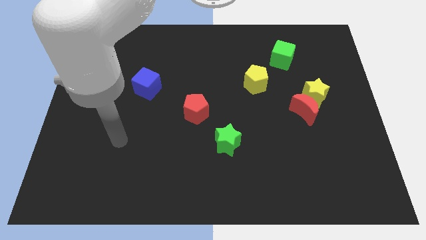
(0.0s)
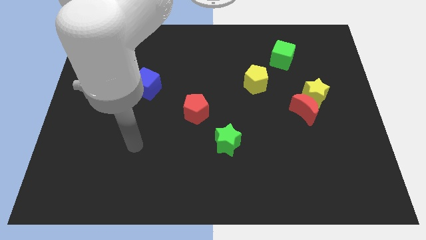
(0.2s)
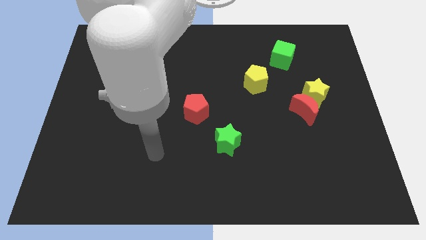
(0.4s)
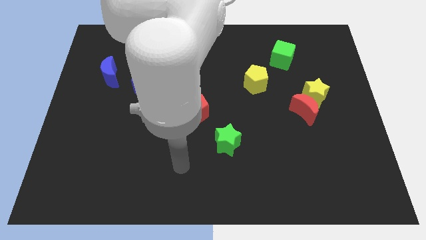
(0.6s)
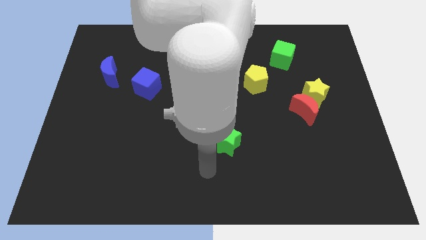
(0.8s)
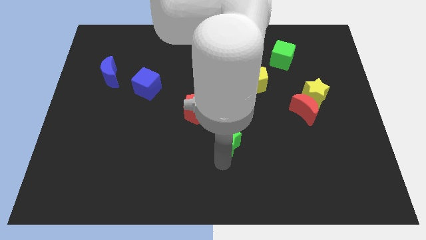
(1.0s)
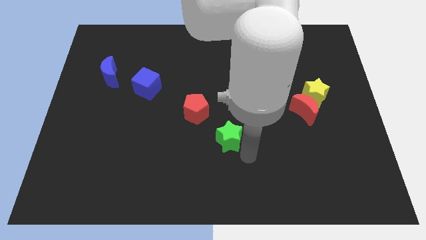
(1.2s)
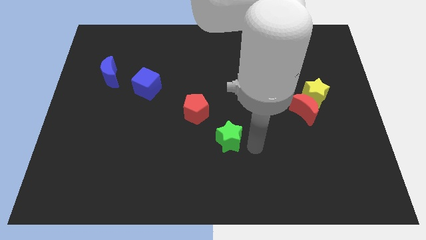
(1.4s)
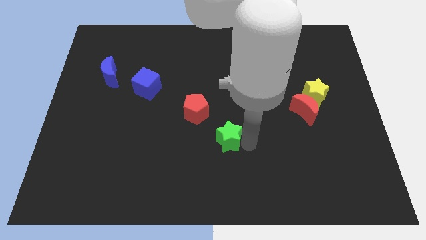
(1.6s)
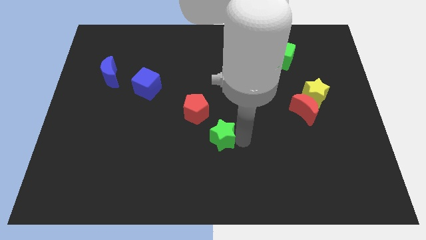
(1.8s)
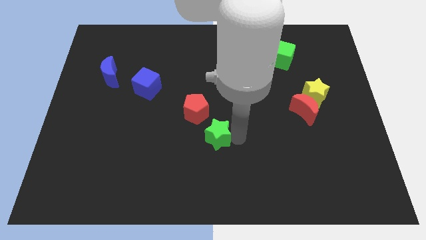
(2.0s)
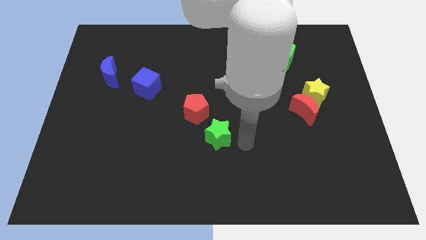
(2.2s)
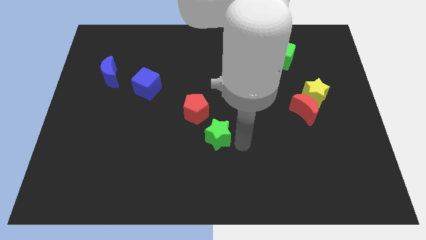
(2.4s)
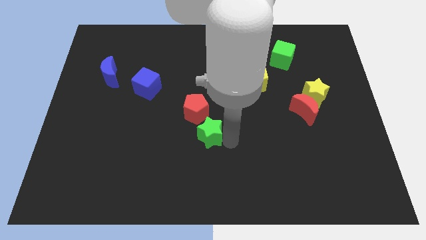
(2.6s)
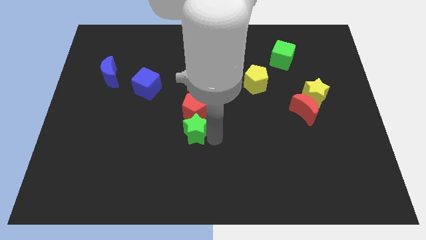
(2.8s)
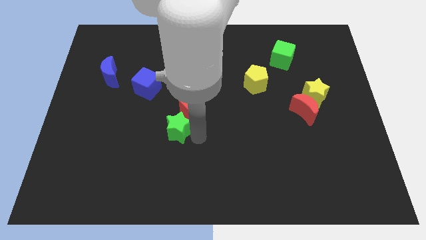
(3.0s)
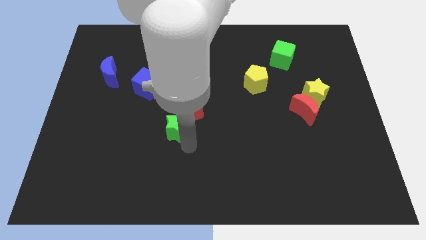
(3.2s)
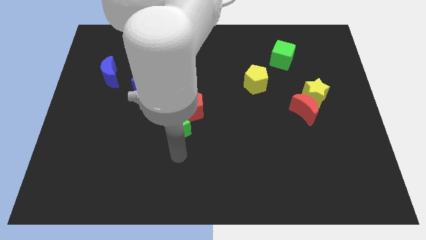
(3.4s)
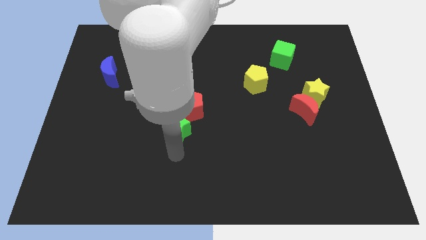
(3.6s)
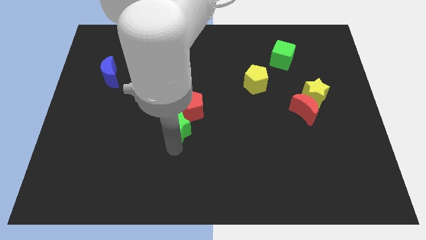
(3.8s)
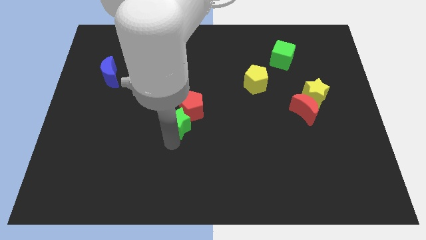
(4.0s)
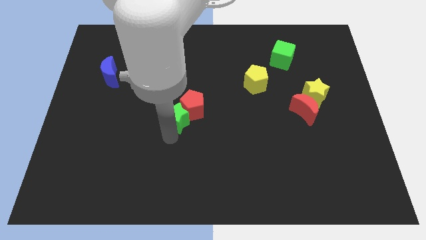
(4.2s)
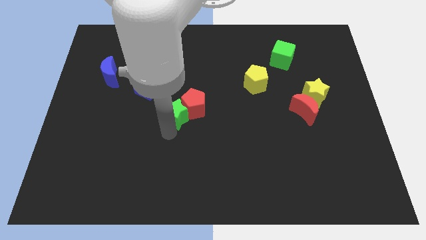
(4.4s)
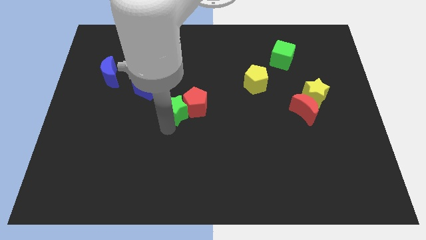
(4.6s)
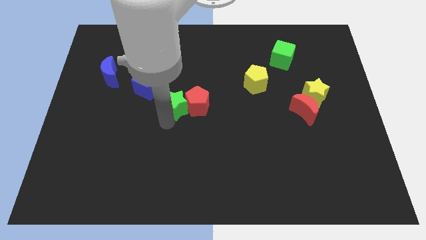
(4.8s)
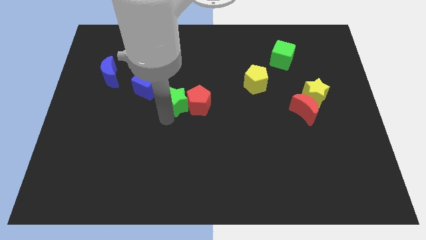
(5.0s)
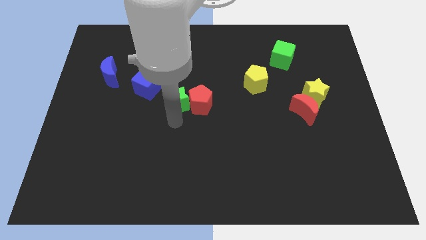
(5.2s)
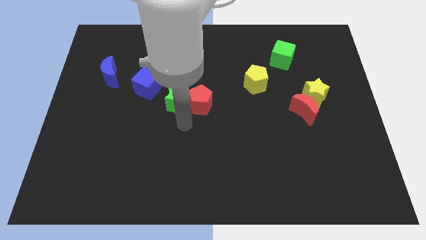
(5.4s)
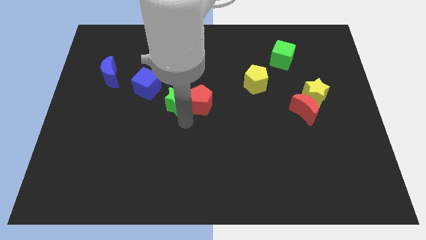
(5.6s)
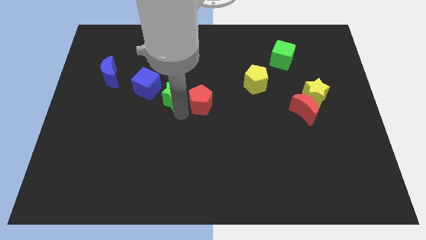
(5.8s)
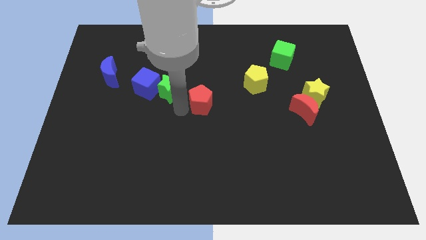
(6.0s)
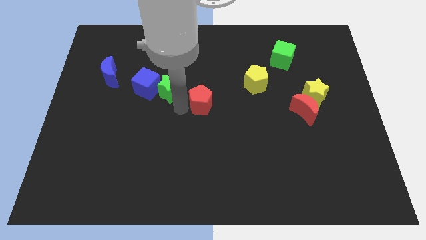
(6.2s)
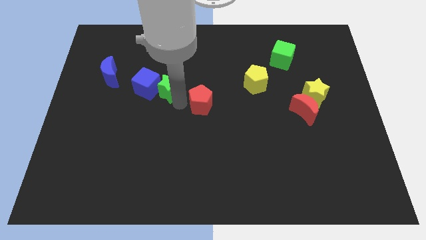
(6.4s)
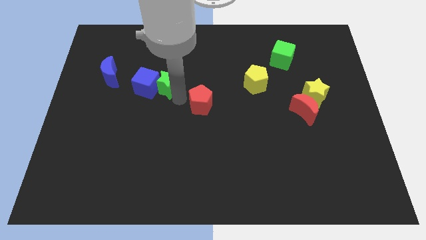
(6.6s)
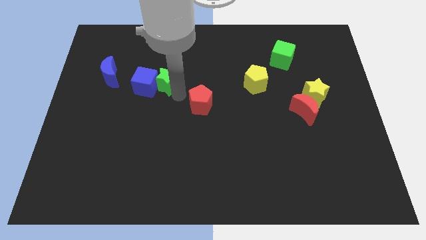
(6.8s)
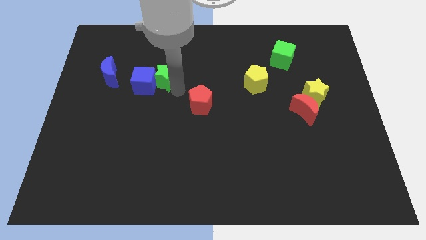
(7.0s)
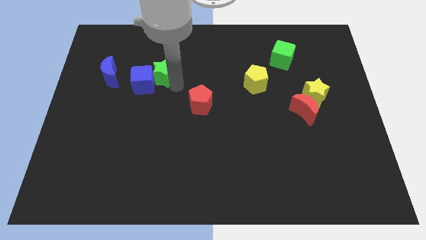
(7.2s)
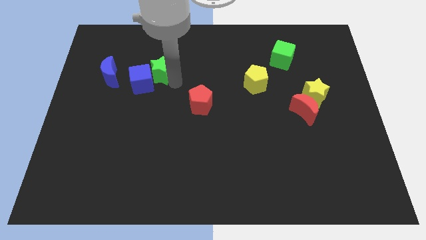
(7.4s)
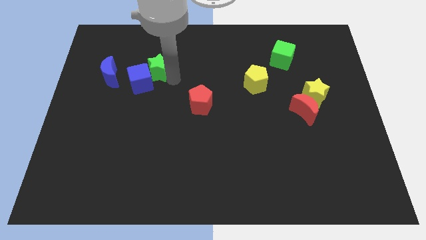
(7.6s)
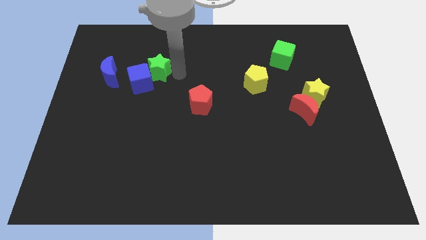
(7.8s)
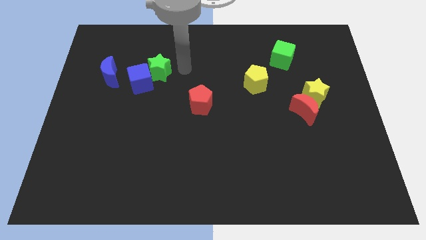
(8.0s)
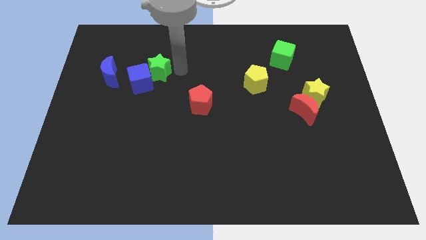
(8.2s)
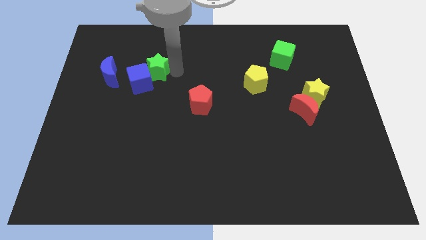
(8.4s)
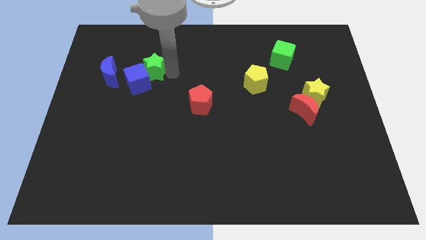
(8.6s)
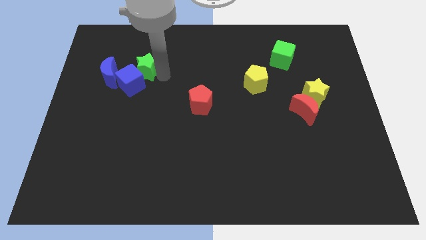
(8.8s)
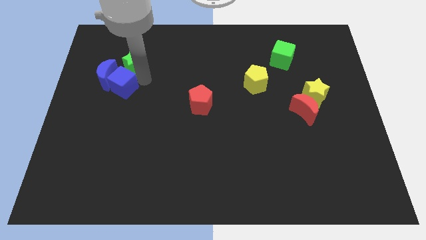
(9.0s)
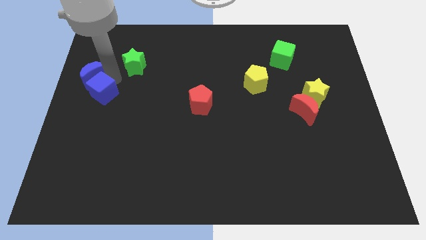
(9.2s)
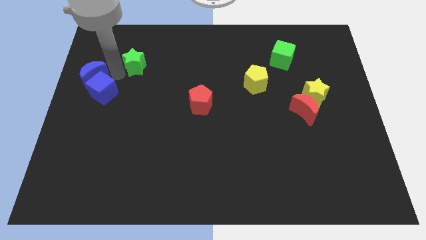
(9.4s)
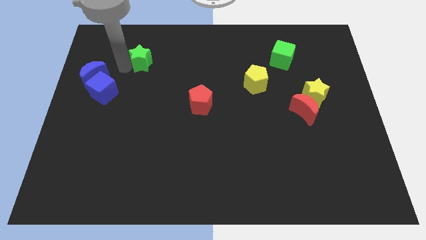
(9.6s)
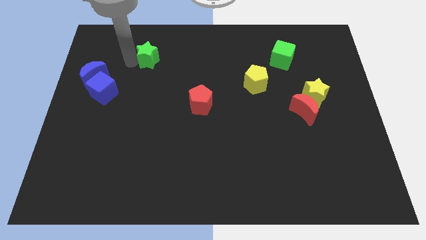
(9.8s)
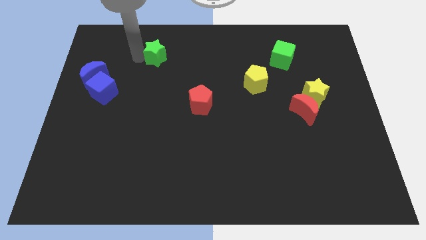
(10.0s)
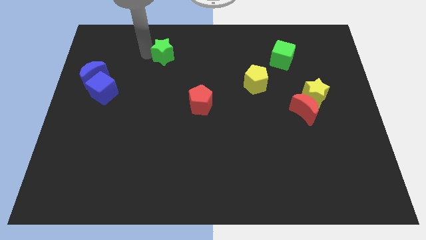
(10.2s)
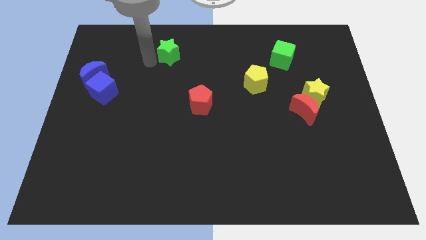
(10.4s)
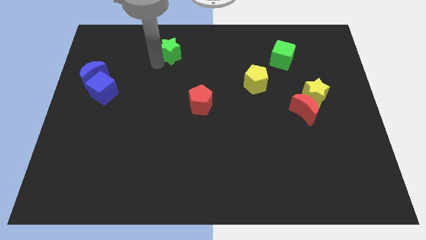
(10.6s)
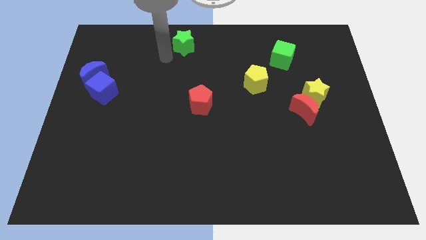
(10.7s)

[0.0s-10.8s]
slide the green star to the top
